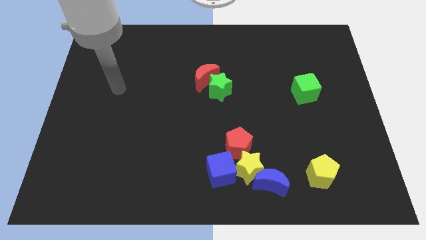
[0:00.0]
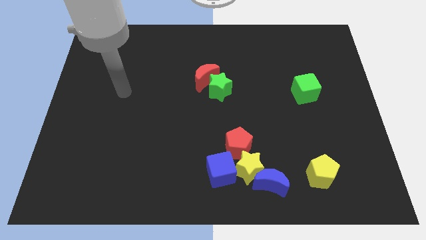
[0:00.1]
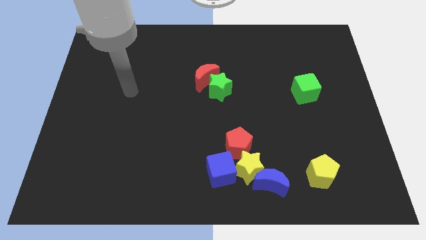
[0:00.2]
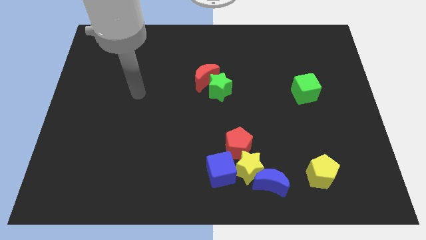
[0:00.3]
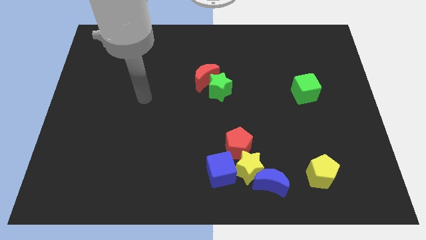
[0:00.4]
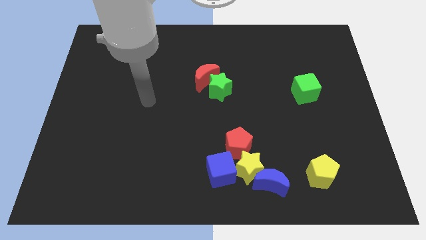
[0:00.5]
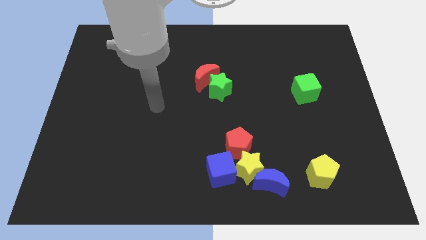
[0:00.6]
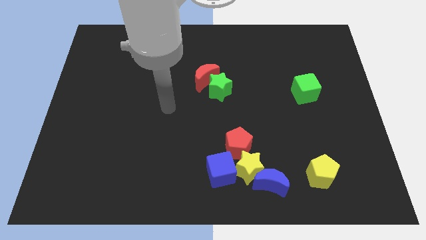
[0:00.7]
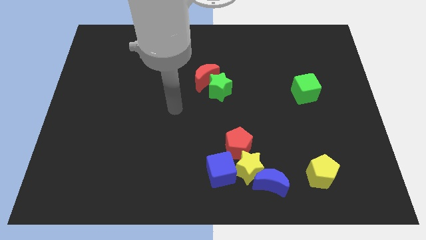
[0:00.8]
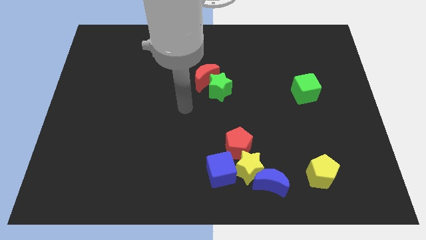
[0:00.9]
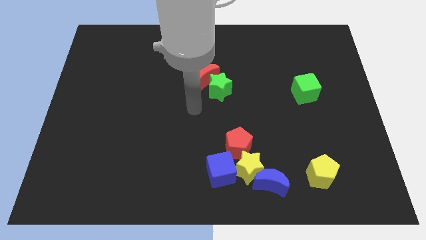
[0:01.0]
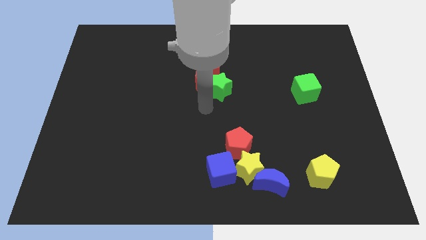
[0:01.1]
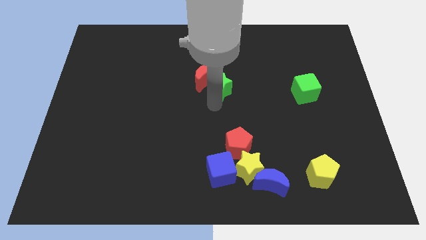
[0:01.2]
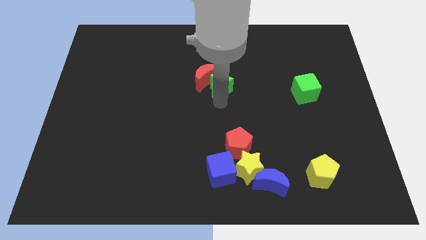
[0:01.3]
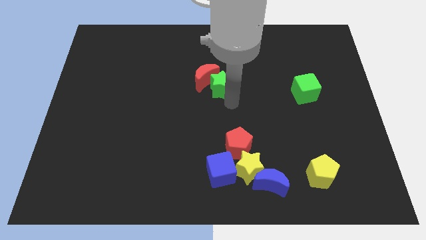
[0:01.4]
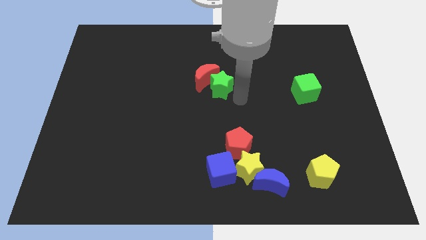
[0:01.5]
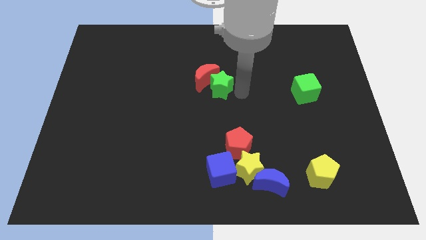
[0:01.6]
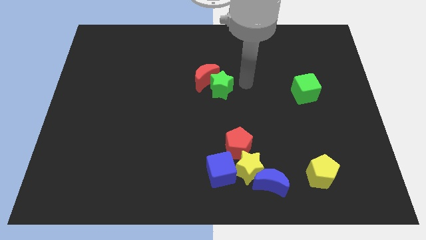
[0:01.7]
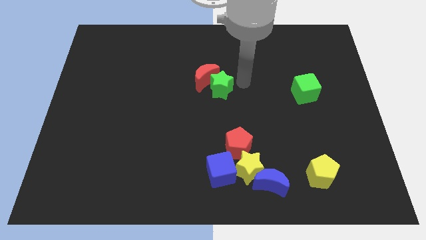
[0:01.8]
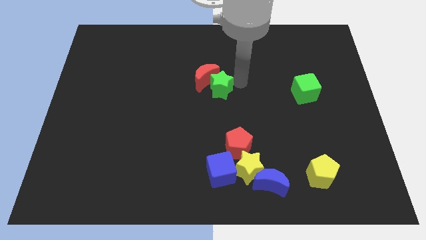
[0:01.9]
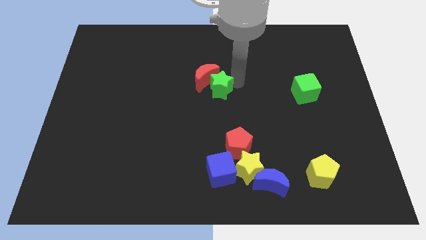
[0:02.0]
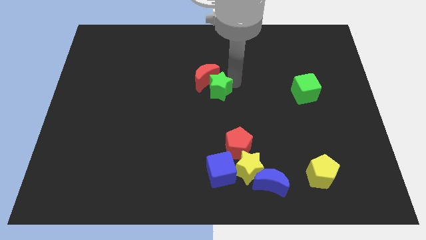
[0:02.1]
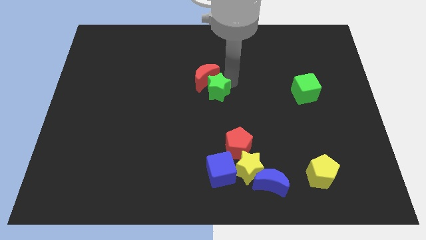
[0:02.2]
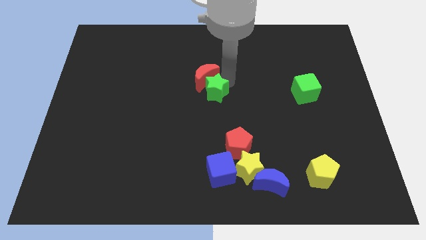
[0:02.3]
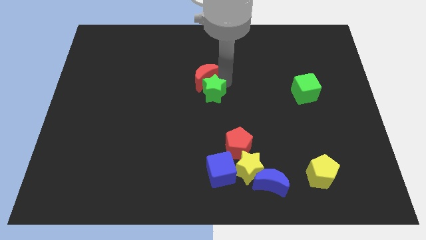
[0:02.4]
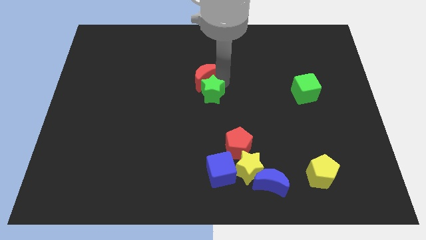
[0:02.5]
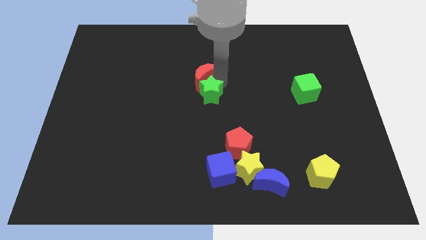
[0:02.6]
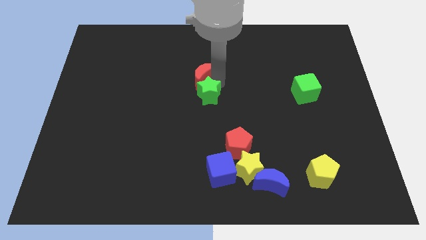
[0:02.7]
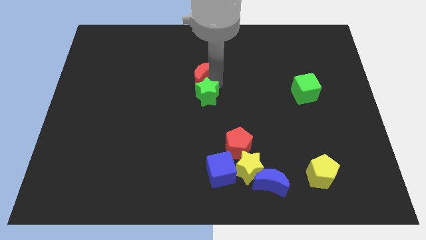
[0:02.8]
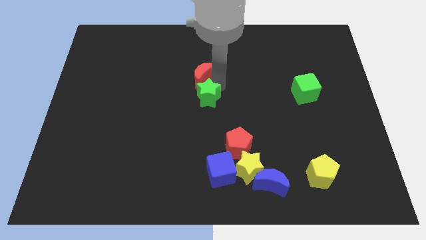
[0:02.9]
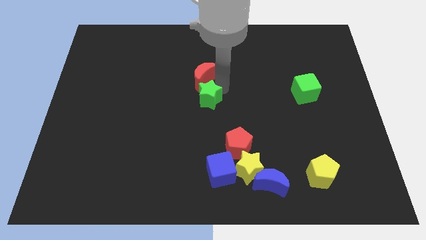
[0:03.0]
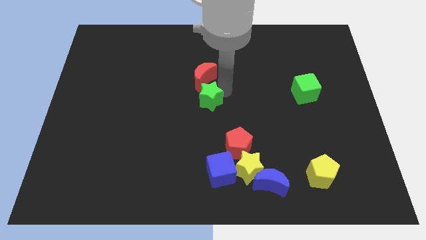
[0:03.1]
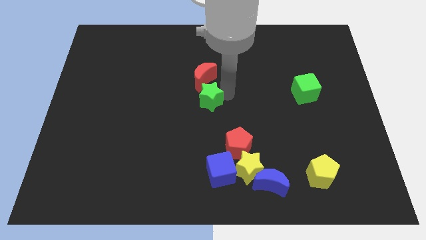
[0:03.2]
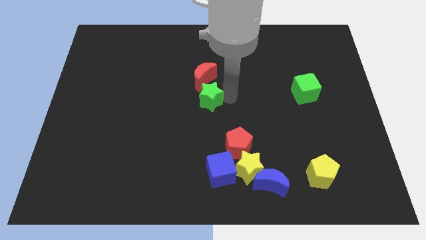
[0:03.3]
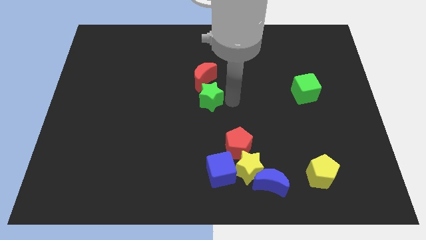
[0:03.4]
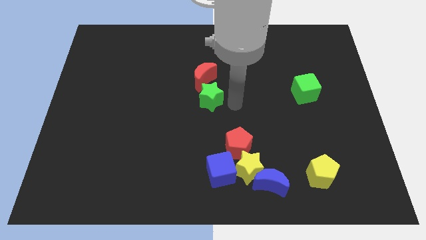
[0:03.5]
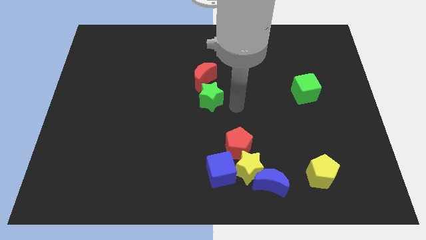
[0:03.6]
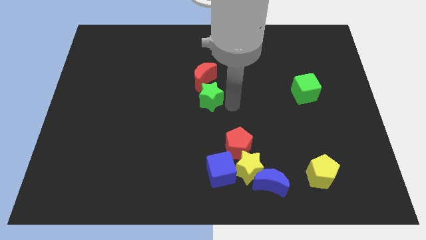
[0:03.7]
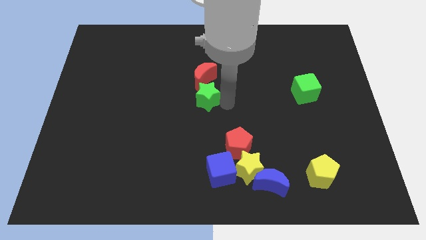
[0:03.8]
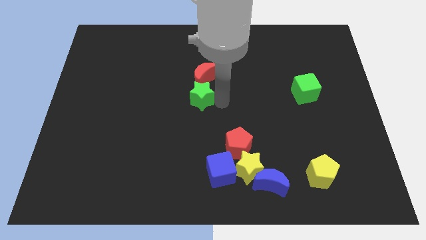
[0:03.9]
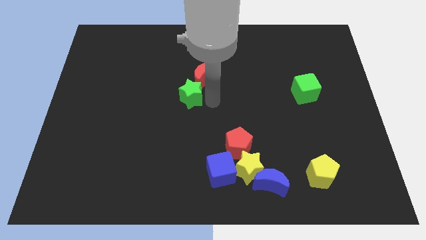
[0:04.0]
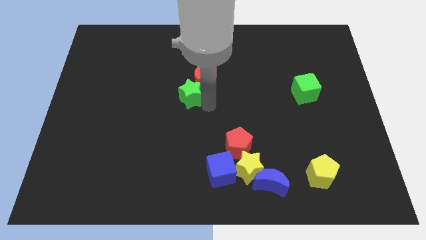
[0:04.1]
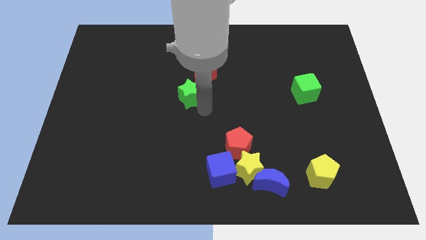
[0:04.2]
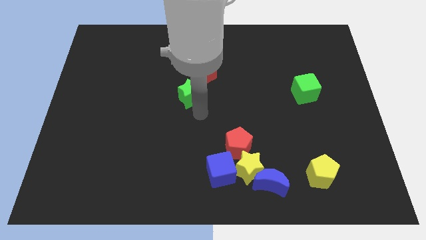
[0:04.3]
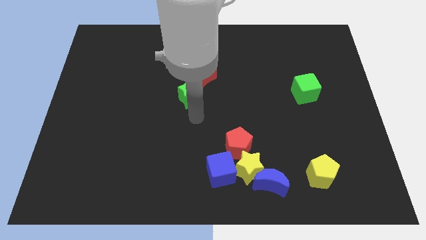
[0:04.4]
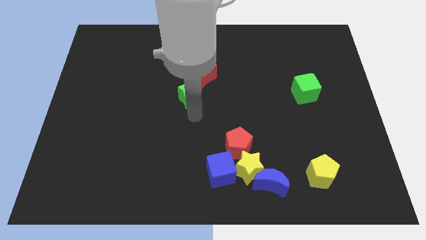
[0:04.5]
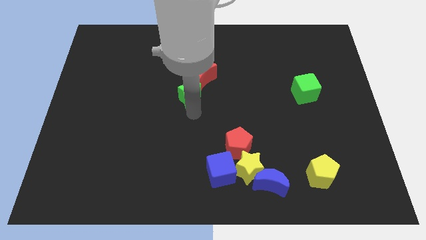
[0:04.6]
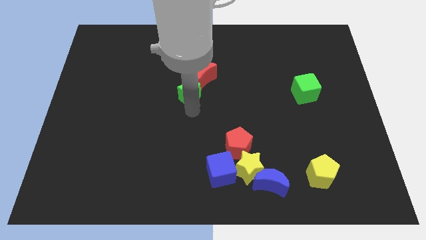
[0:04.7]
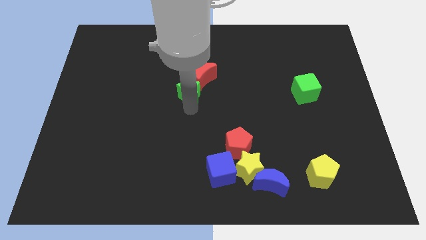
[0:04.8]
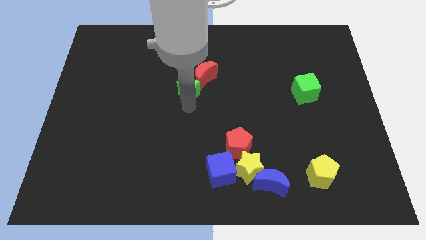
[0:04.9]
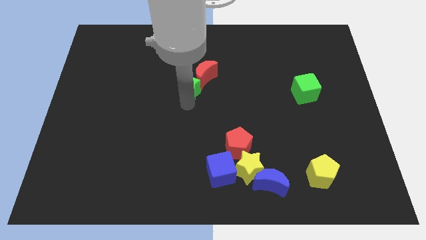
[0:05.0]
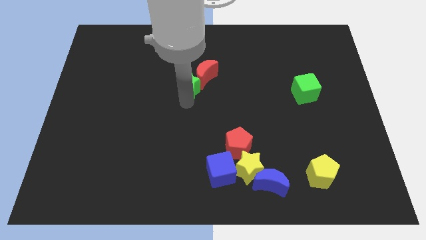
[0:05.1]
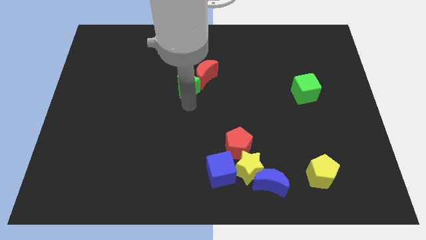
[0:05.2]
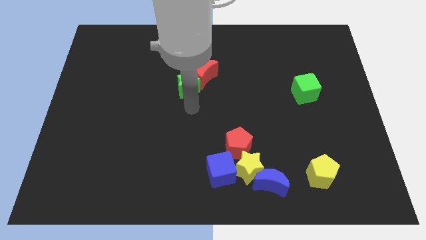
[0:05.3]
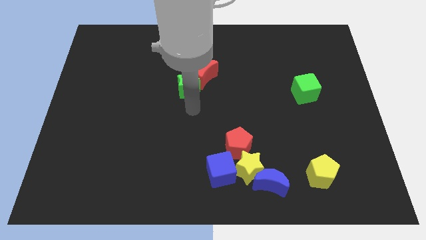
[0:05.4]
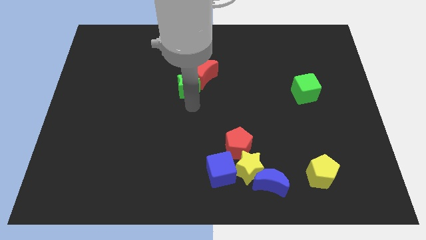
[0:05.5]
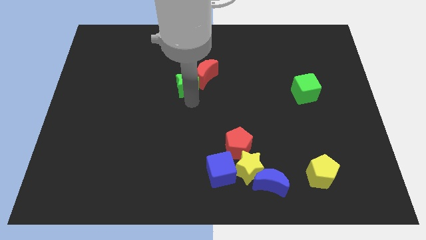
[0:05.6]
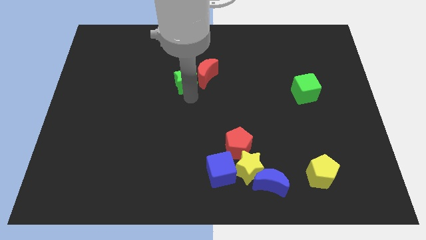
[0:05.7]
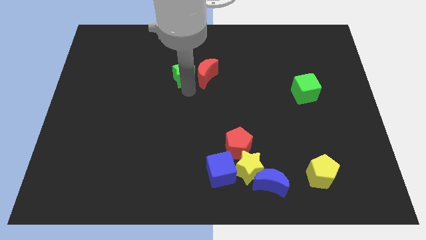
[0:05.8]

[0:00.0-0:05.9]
put the green star to the top left side of the red moon

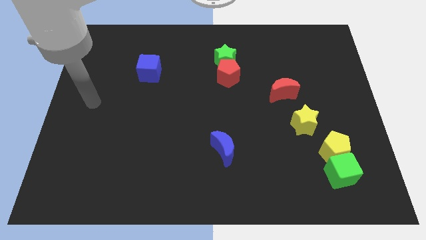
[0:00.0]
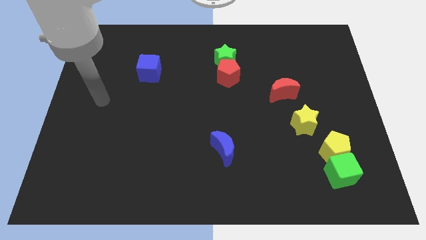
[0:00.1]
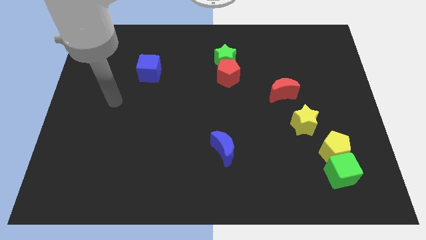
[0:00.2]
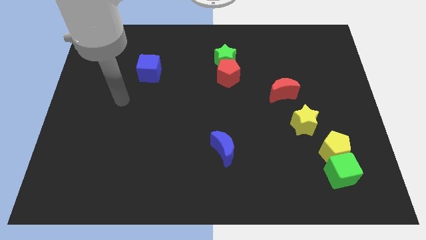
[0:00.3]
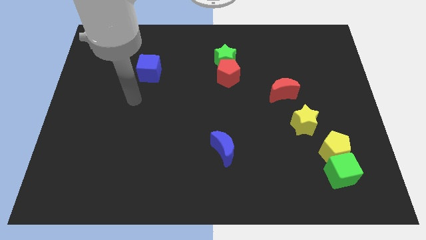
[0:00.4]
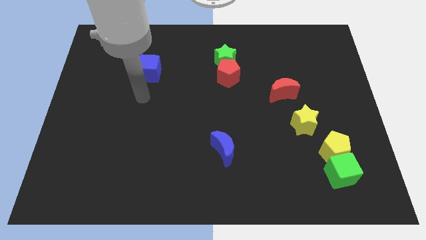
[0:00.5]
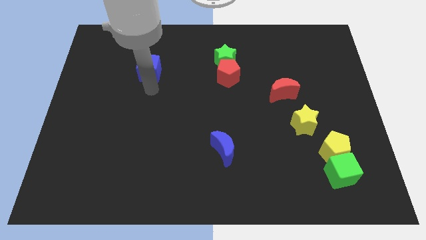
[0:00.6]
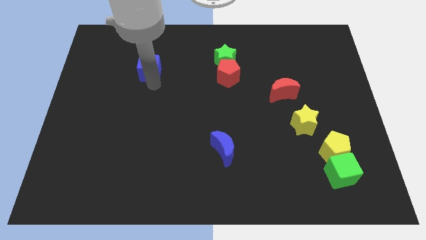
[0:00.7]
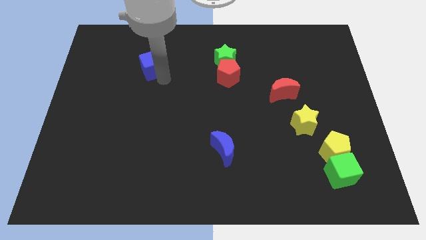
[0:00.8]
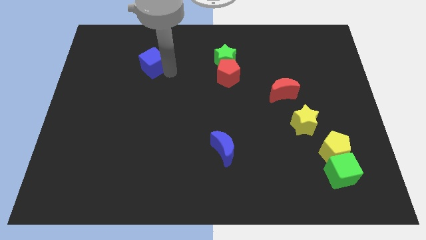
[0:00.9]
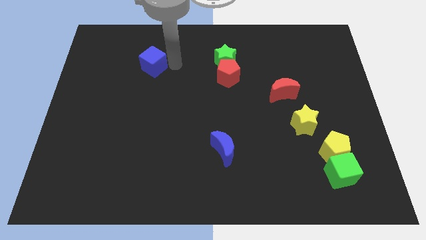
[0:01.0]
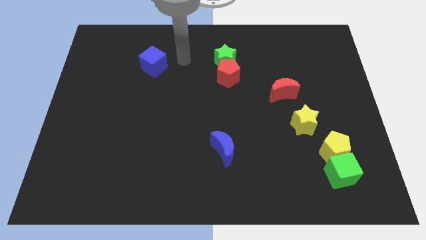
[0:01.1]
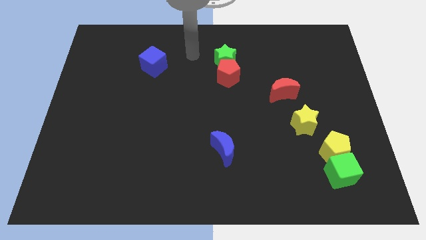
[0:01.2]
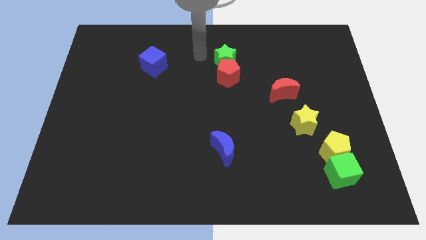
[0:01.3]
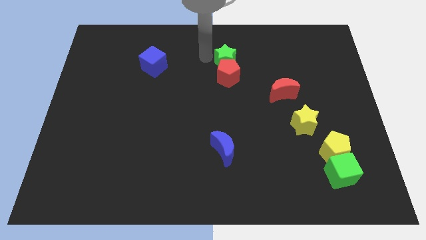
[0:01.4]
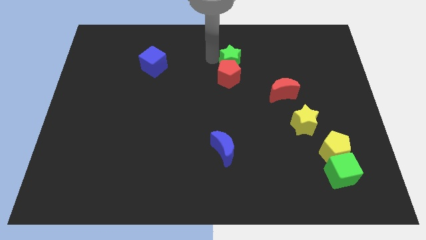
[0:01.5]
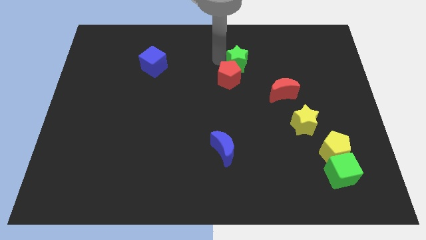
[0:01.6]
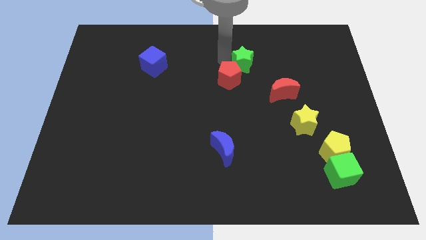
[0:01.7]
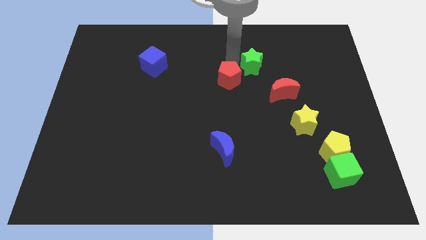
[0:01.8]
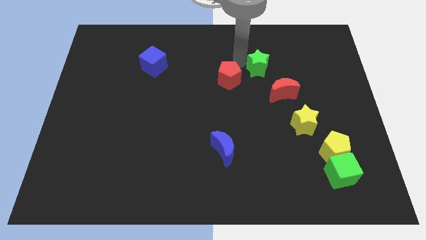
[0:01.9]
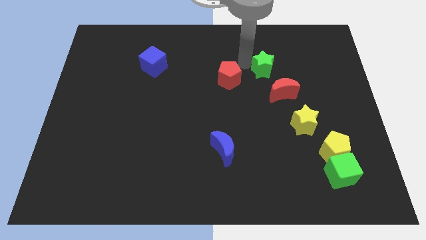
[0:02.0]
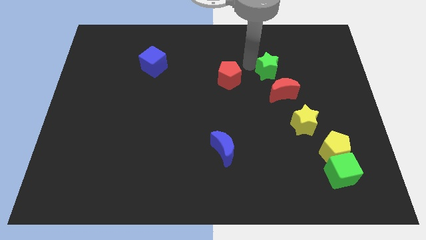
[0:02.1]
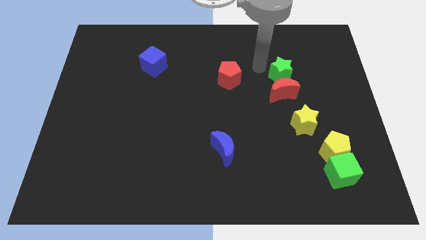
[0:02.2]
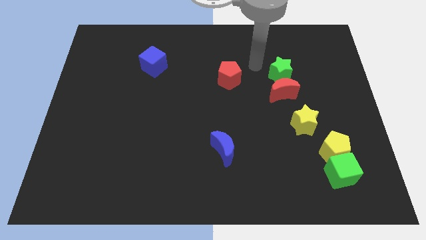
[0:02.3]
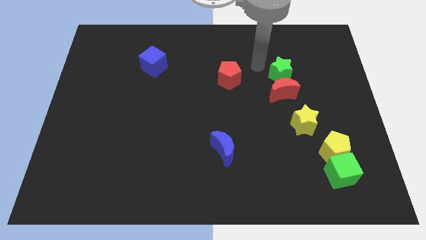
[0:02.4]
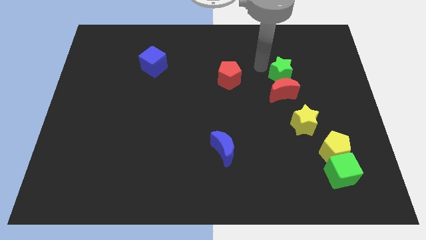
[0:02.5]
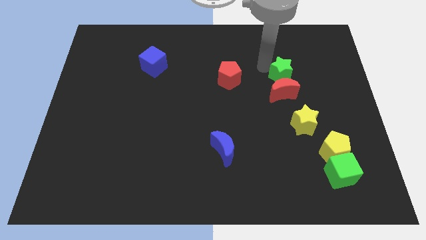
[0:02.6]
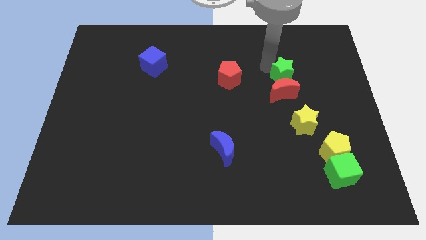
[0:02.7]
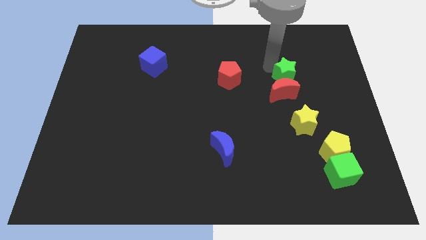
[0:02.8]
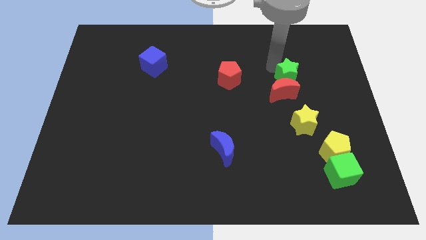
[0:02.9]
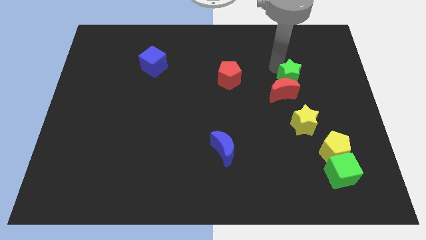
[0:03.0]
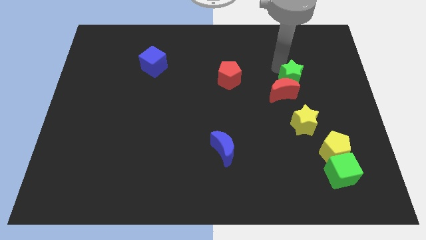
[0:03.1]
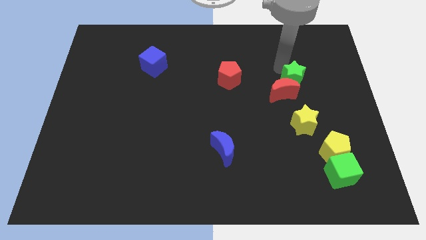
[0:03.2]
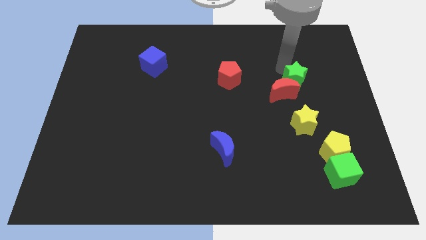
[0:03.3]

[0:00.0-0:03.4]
move the green star to the right side of the red moon
